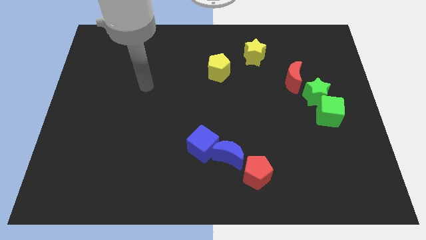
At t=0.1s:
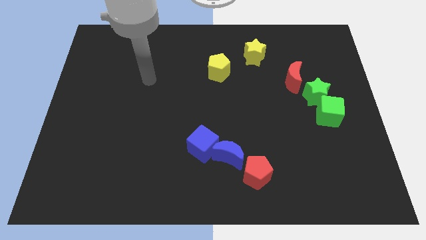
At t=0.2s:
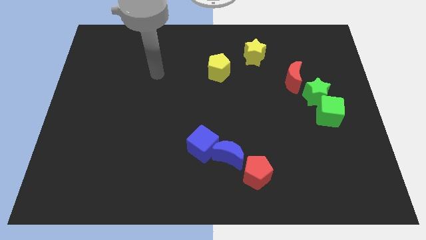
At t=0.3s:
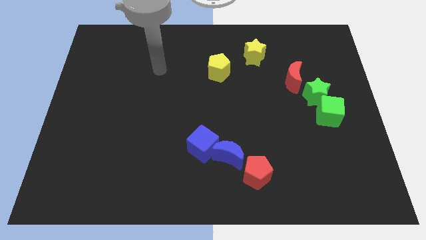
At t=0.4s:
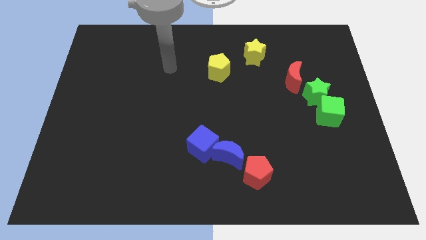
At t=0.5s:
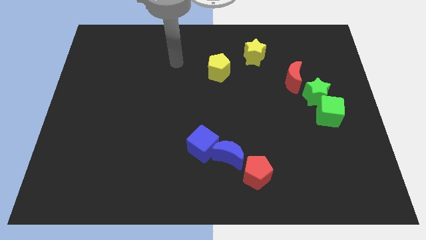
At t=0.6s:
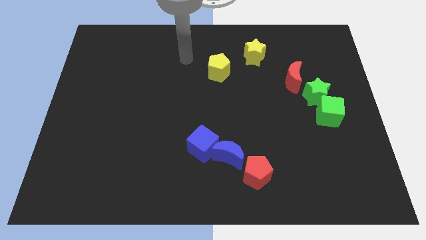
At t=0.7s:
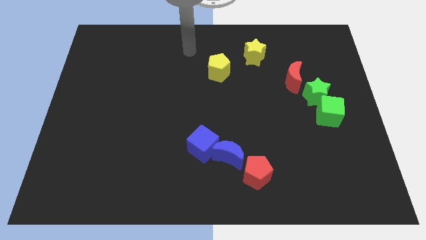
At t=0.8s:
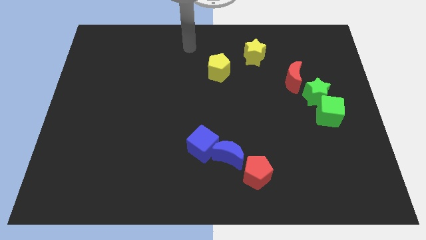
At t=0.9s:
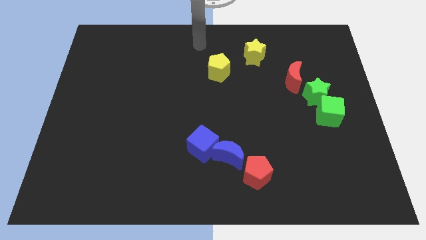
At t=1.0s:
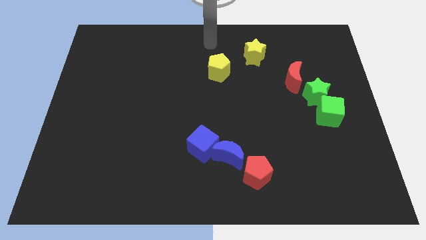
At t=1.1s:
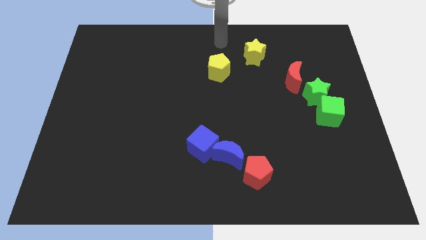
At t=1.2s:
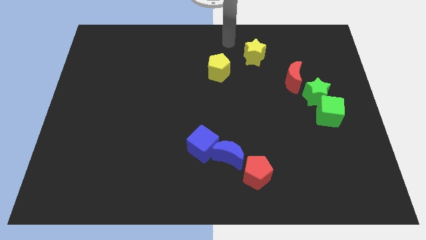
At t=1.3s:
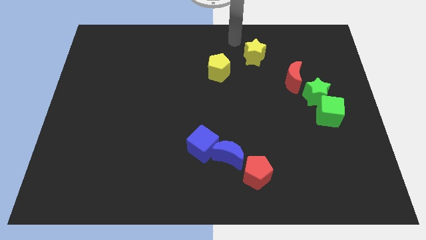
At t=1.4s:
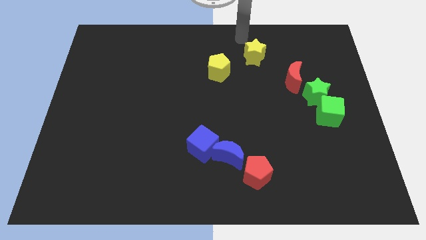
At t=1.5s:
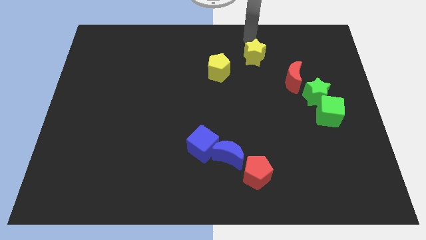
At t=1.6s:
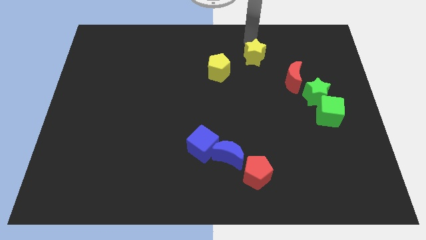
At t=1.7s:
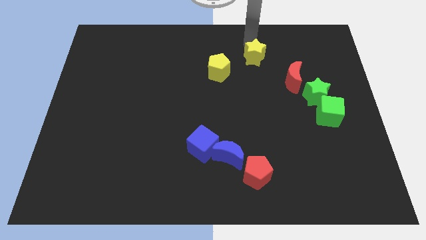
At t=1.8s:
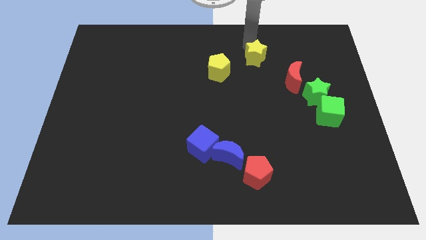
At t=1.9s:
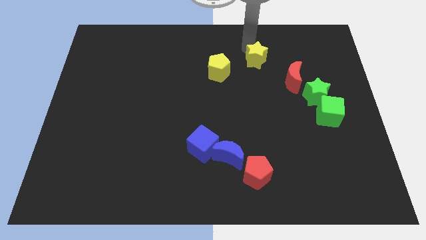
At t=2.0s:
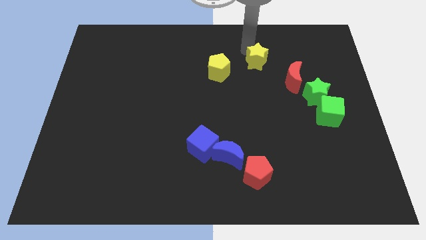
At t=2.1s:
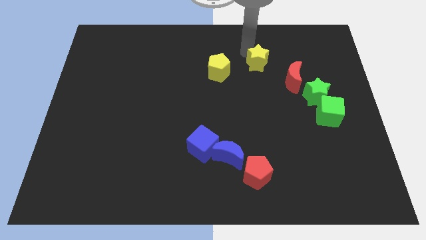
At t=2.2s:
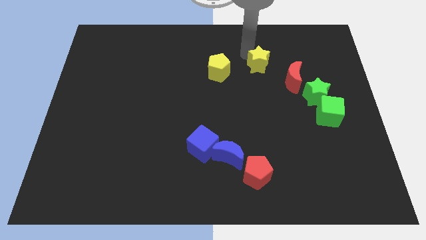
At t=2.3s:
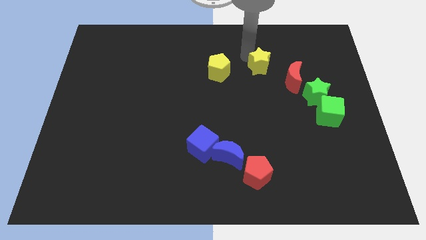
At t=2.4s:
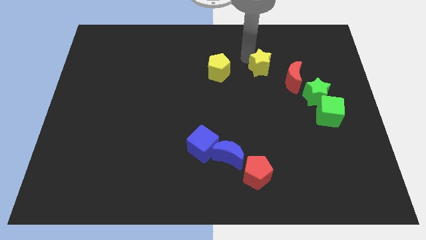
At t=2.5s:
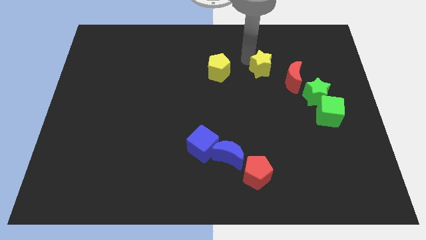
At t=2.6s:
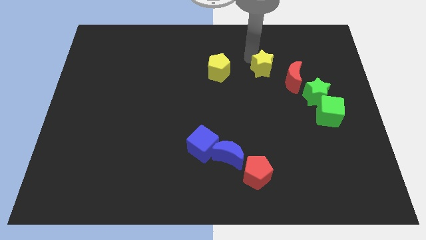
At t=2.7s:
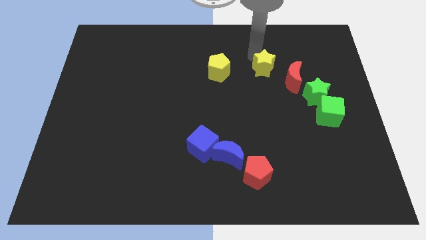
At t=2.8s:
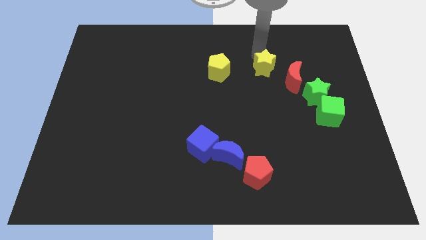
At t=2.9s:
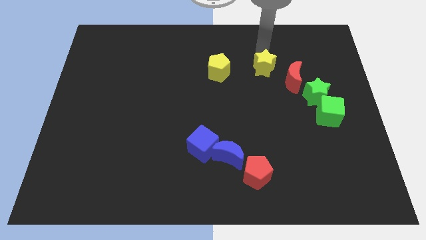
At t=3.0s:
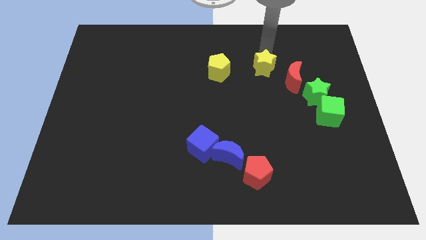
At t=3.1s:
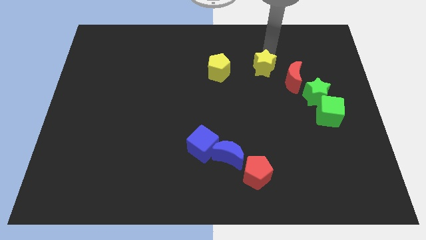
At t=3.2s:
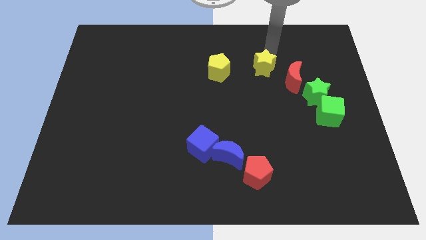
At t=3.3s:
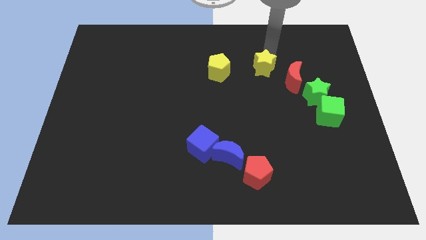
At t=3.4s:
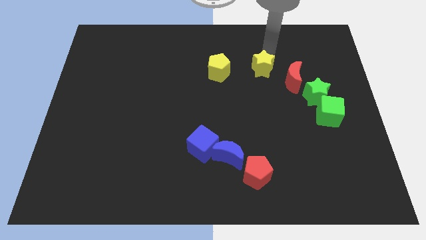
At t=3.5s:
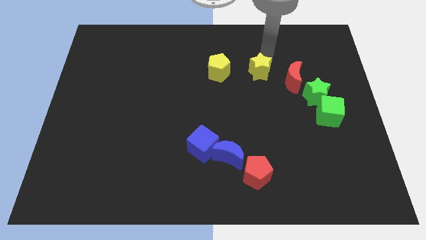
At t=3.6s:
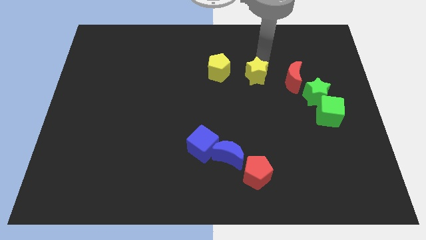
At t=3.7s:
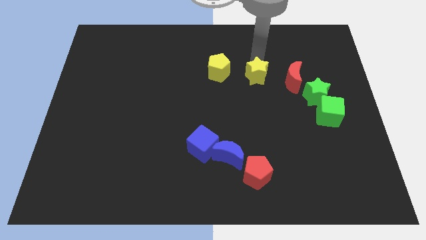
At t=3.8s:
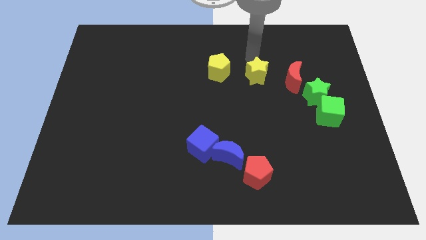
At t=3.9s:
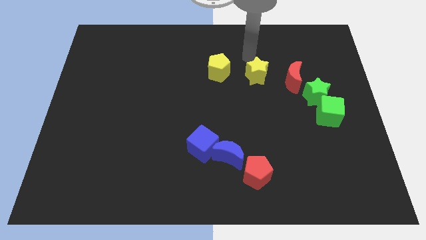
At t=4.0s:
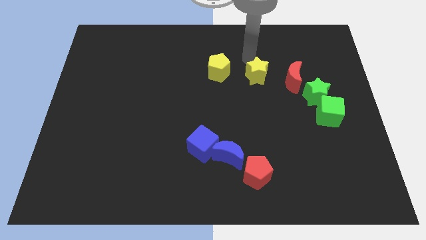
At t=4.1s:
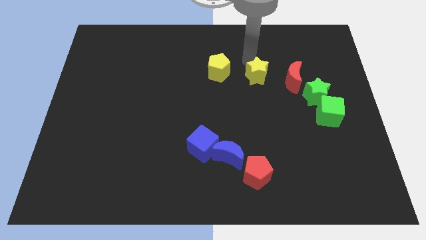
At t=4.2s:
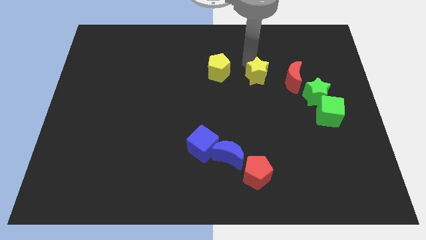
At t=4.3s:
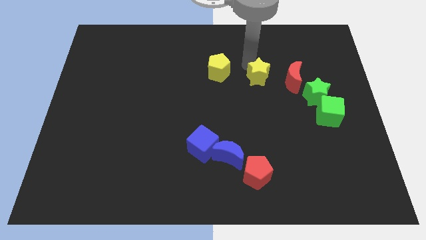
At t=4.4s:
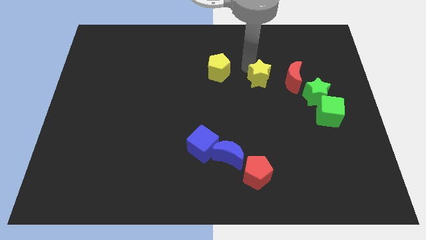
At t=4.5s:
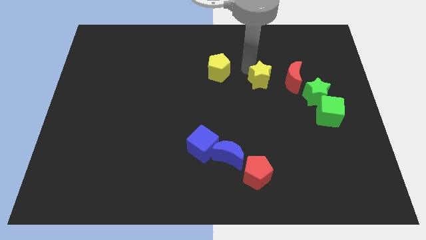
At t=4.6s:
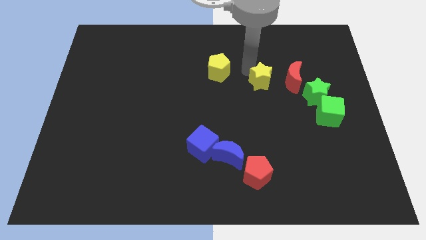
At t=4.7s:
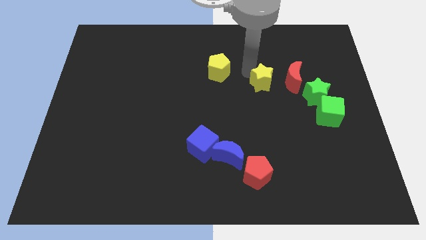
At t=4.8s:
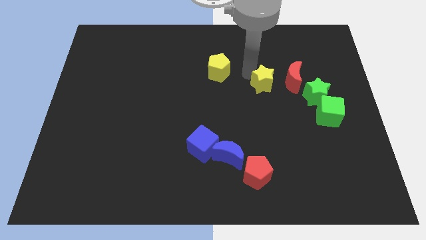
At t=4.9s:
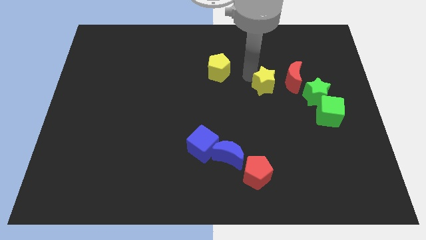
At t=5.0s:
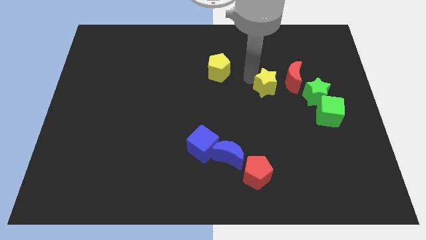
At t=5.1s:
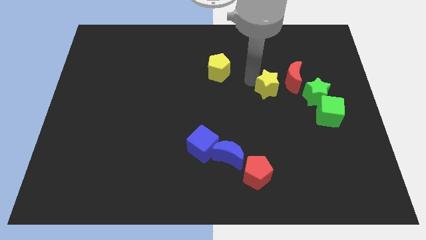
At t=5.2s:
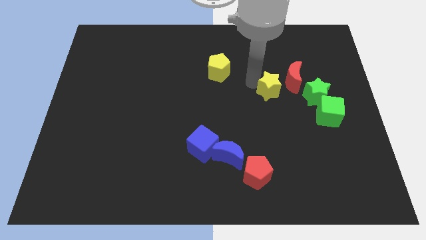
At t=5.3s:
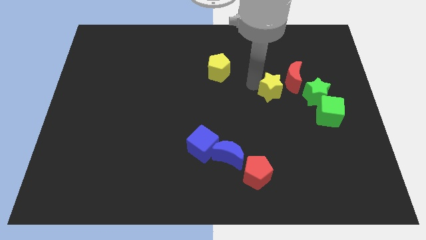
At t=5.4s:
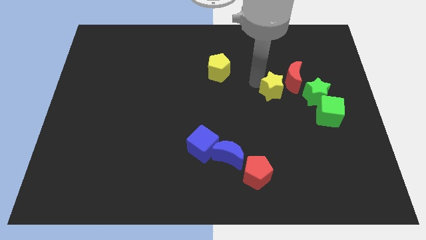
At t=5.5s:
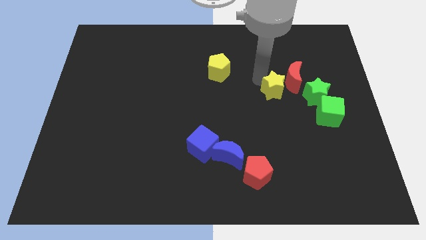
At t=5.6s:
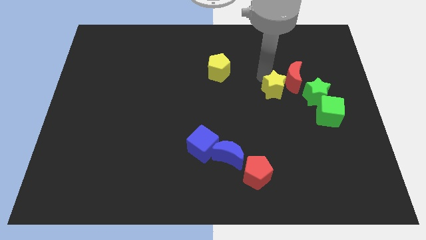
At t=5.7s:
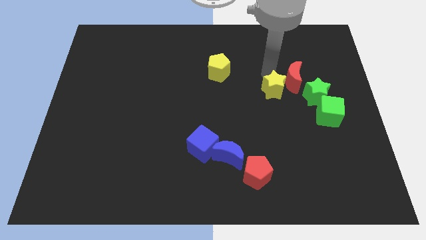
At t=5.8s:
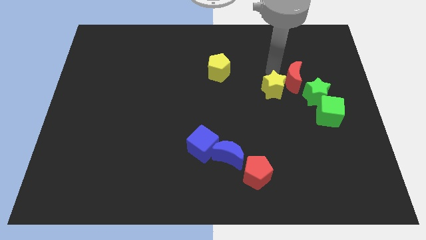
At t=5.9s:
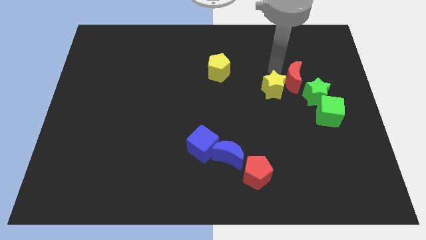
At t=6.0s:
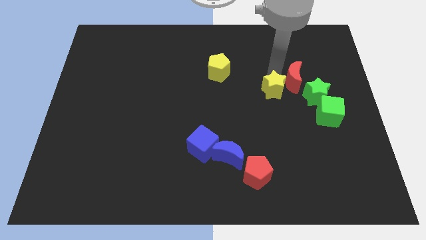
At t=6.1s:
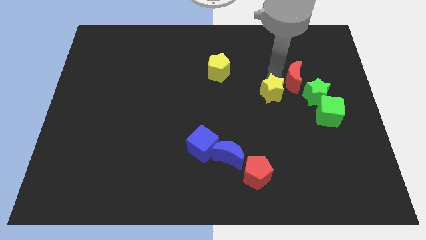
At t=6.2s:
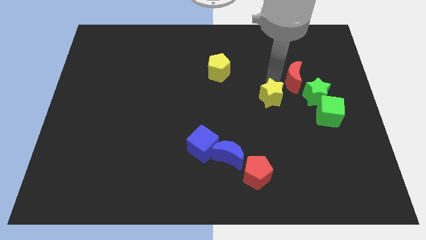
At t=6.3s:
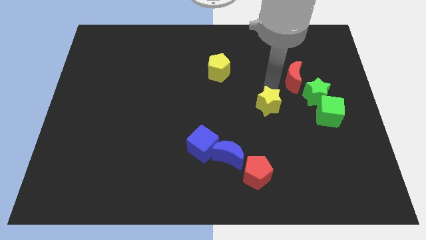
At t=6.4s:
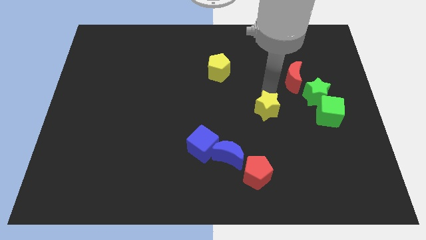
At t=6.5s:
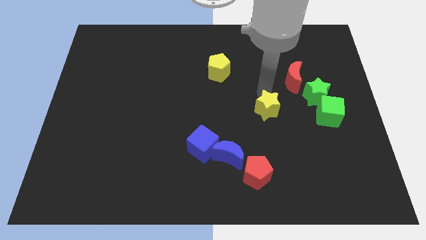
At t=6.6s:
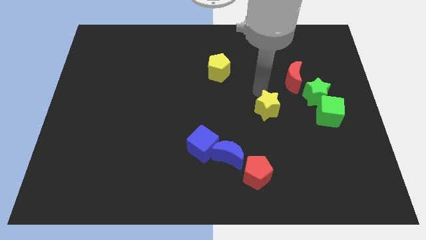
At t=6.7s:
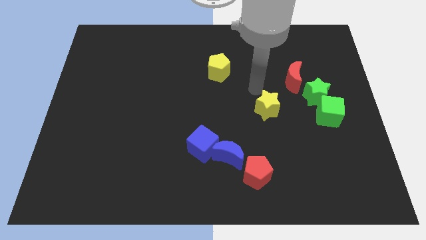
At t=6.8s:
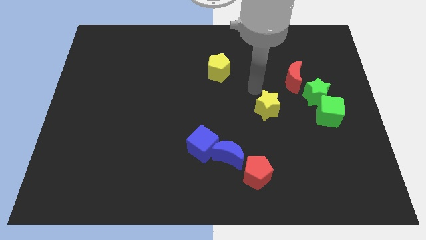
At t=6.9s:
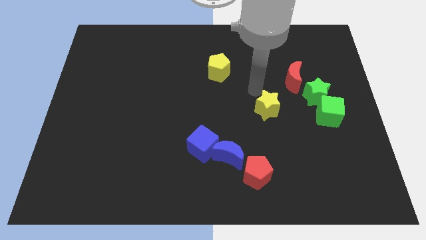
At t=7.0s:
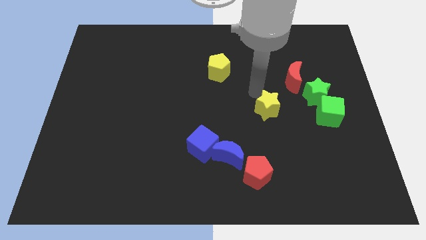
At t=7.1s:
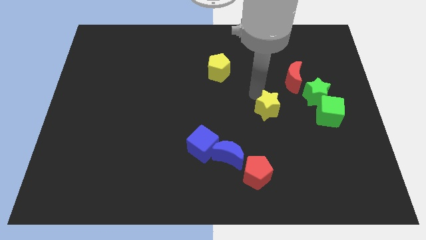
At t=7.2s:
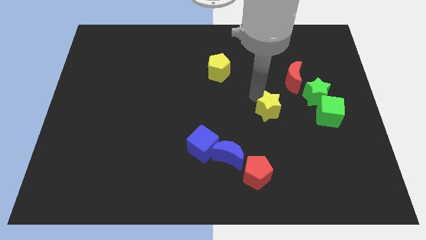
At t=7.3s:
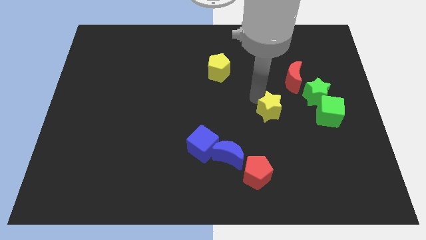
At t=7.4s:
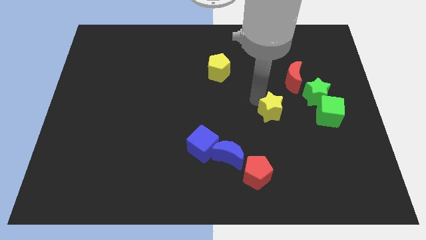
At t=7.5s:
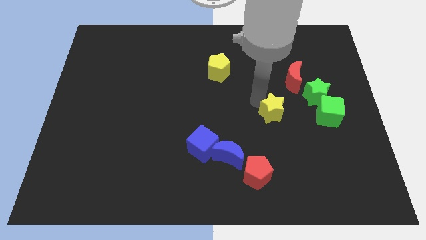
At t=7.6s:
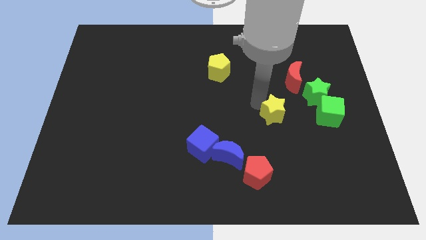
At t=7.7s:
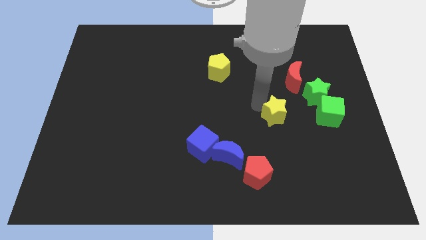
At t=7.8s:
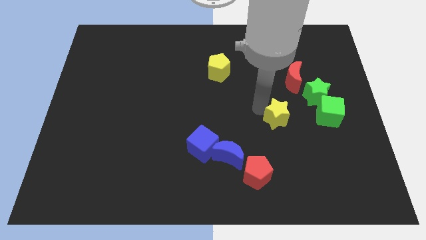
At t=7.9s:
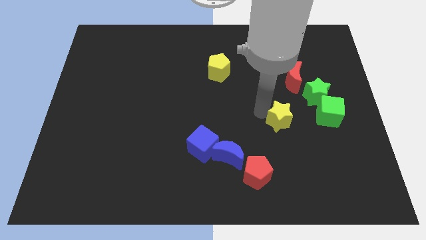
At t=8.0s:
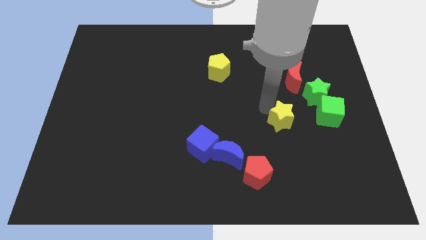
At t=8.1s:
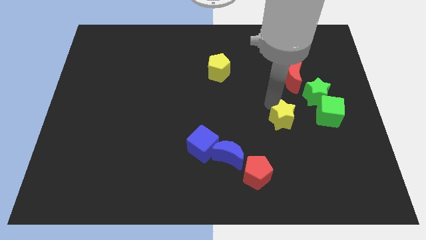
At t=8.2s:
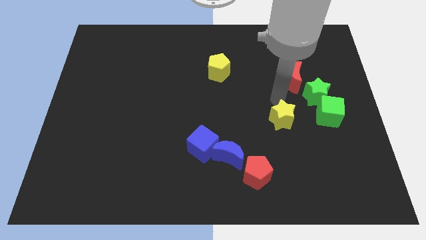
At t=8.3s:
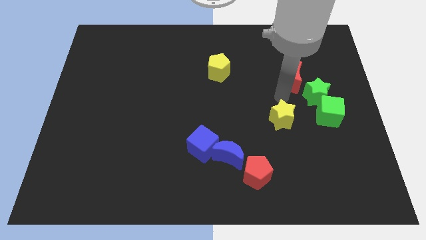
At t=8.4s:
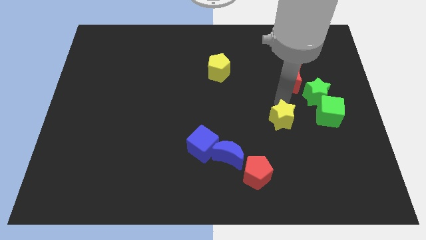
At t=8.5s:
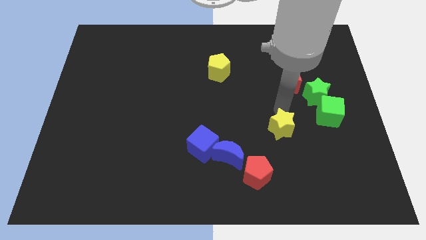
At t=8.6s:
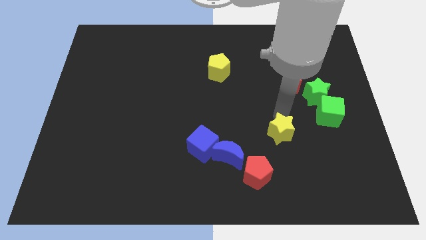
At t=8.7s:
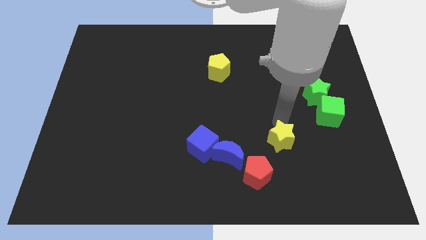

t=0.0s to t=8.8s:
slide the yellow star right of the blue moon
